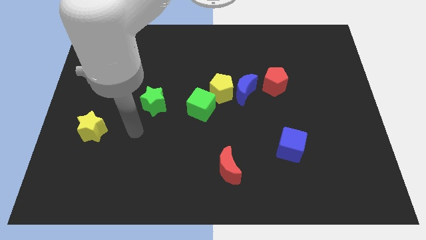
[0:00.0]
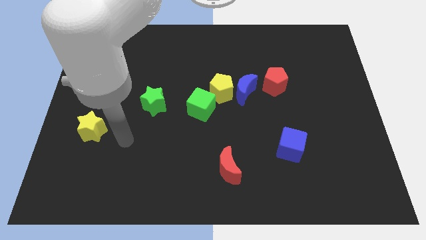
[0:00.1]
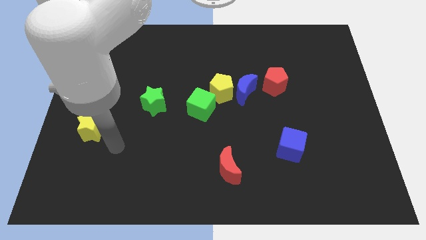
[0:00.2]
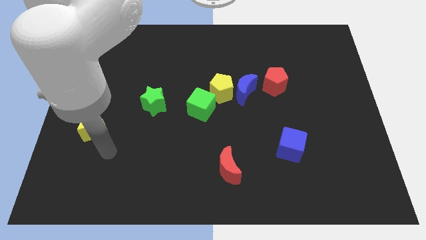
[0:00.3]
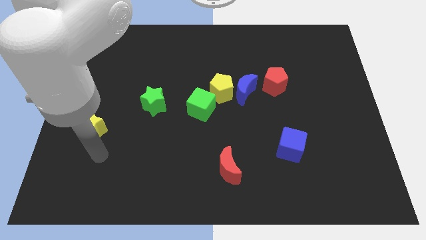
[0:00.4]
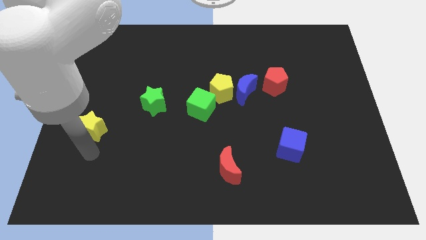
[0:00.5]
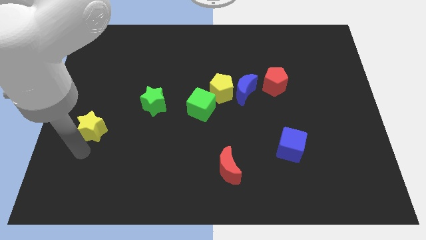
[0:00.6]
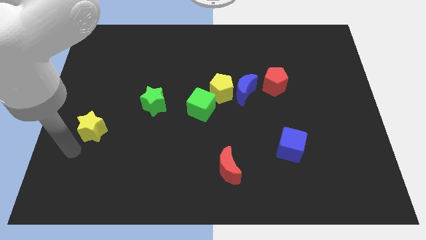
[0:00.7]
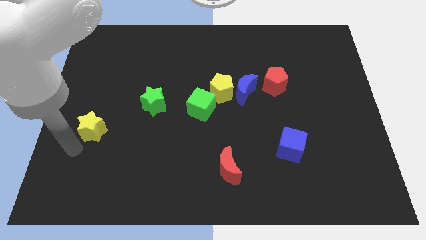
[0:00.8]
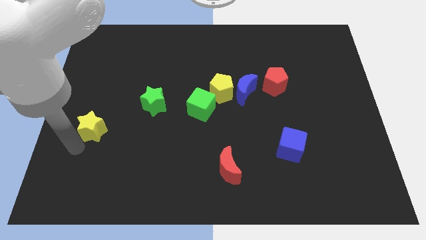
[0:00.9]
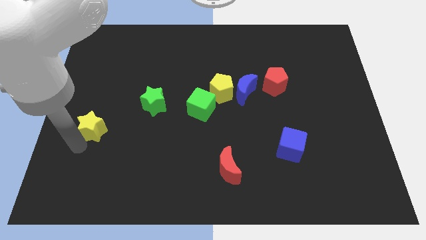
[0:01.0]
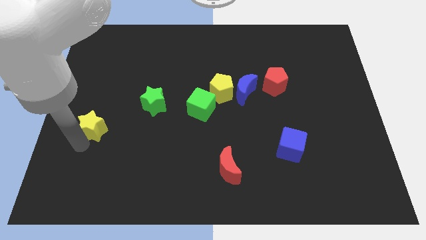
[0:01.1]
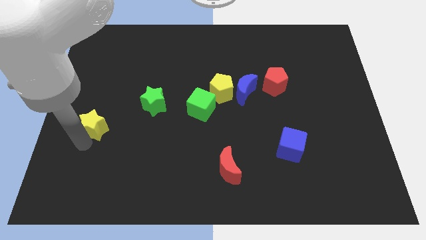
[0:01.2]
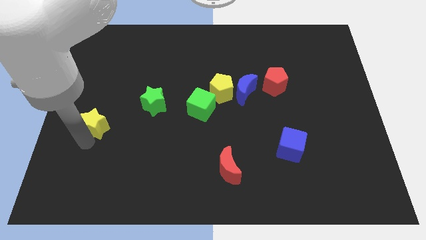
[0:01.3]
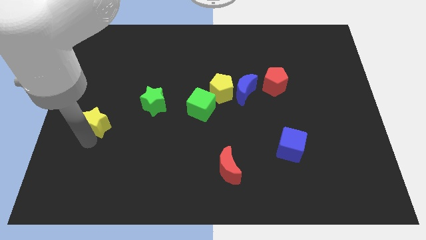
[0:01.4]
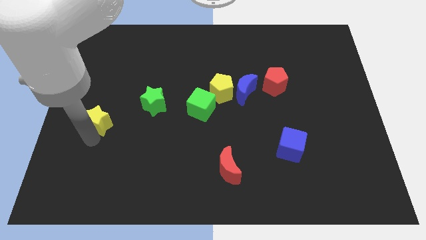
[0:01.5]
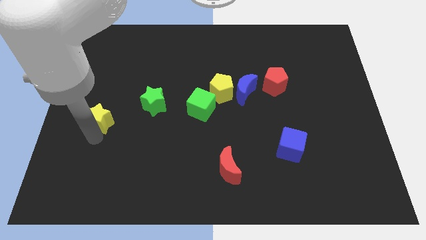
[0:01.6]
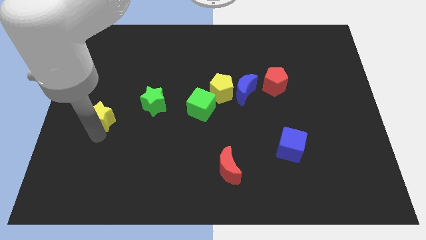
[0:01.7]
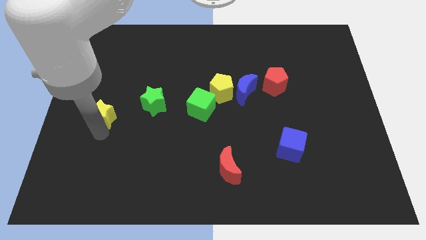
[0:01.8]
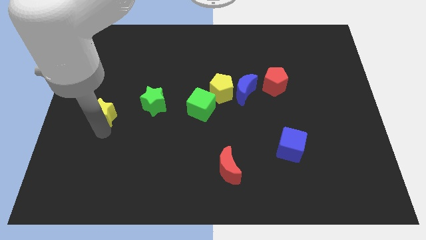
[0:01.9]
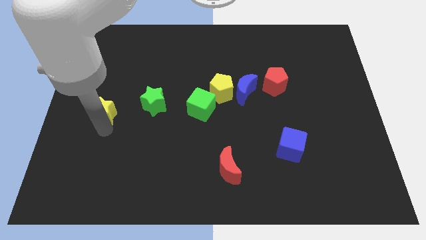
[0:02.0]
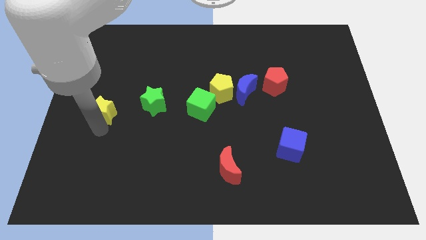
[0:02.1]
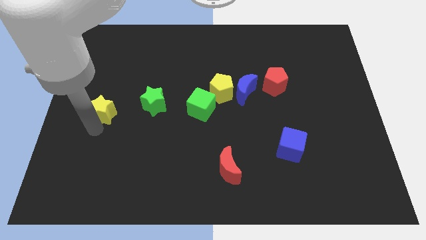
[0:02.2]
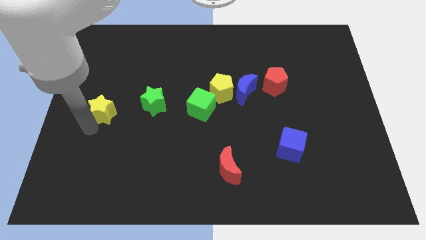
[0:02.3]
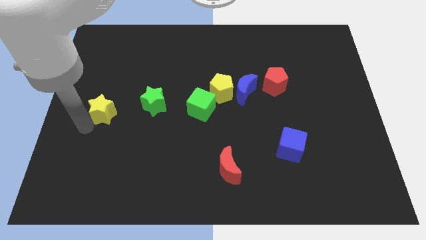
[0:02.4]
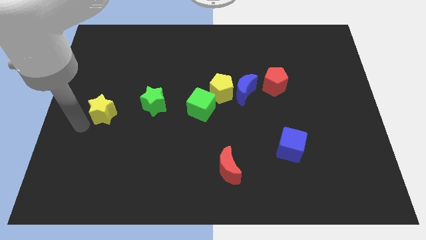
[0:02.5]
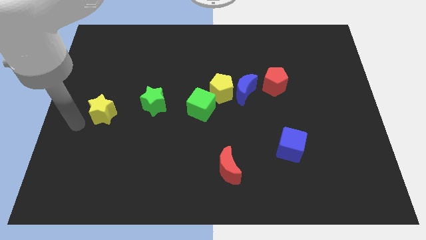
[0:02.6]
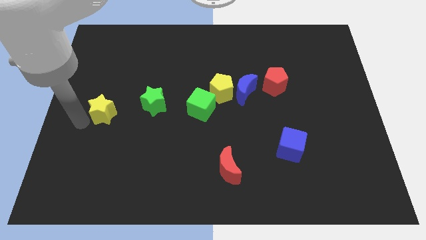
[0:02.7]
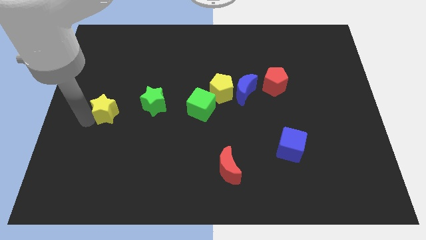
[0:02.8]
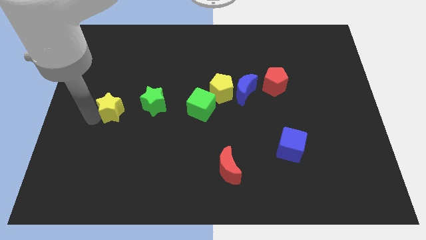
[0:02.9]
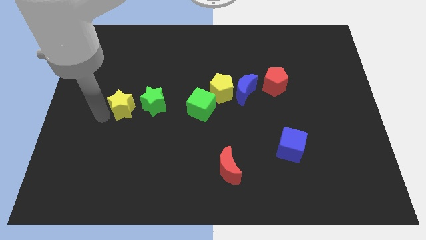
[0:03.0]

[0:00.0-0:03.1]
push the yellow star a little bit diagonally upwards and to the right

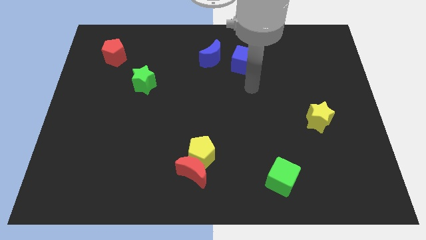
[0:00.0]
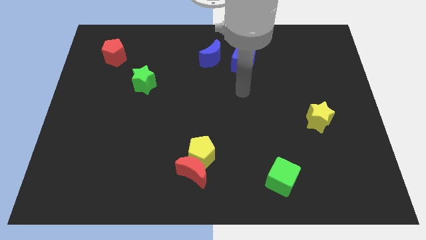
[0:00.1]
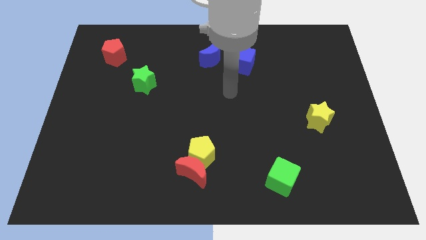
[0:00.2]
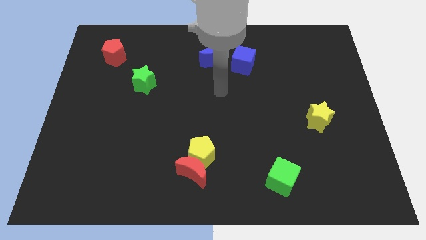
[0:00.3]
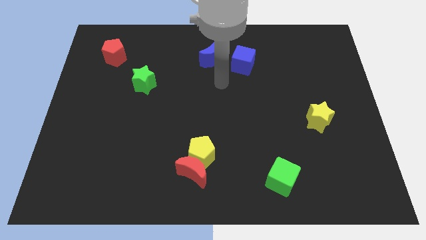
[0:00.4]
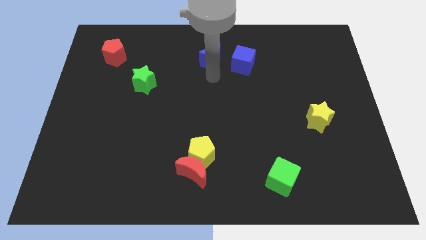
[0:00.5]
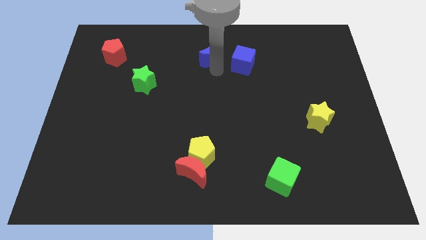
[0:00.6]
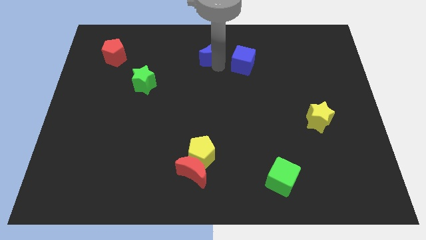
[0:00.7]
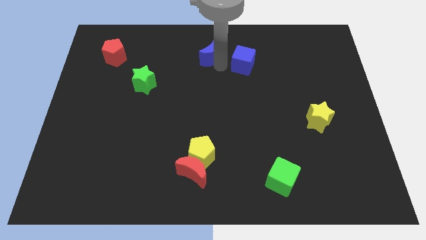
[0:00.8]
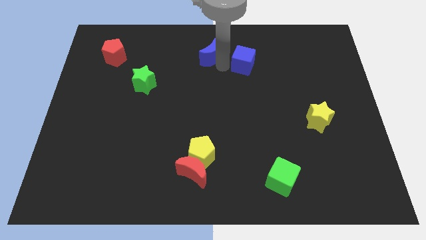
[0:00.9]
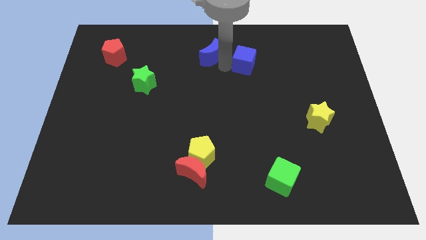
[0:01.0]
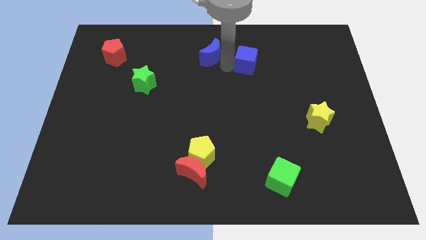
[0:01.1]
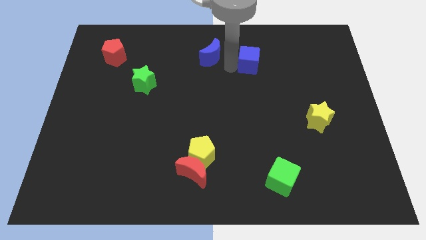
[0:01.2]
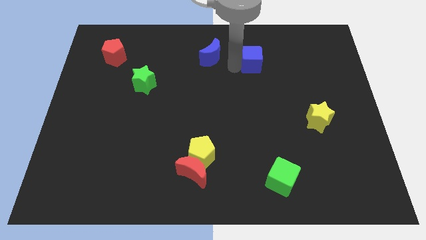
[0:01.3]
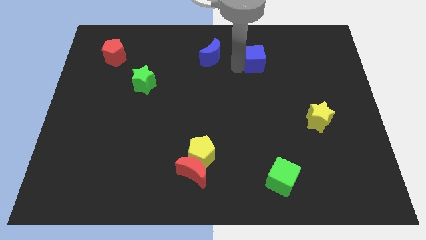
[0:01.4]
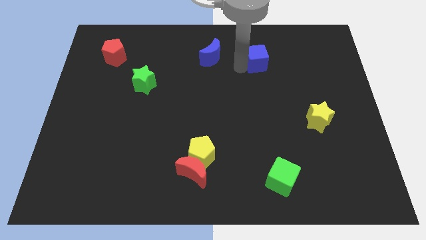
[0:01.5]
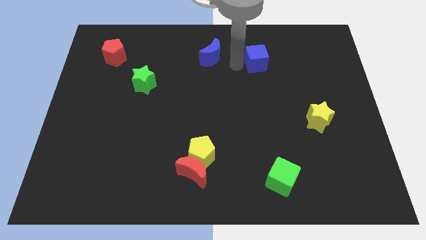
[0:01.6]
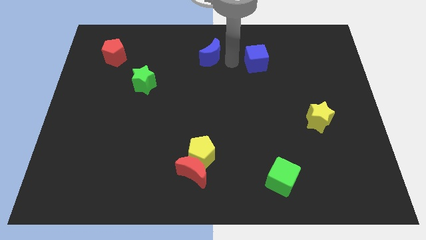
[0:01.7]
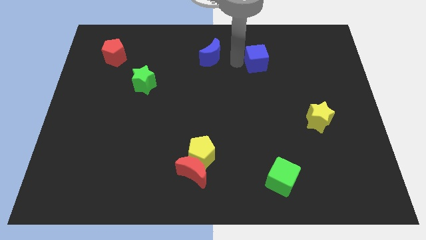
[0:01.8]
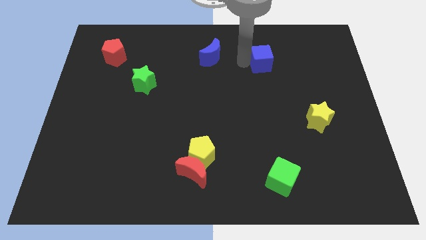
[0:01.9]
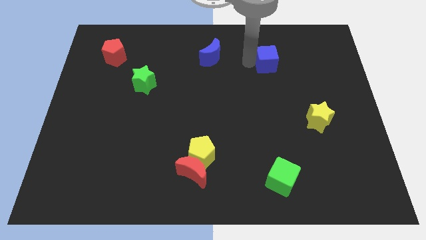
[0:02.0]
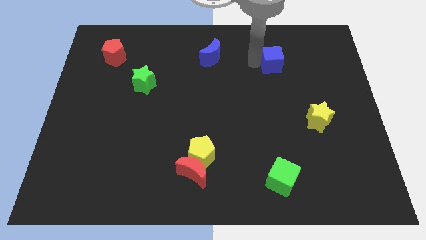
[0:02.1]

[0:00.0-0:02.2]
slightly slide the blue cube right

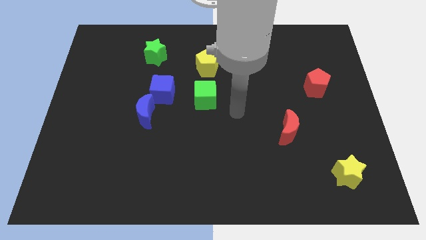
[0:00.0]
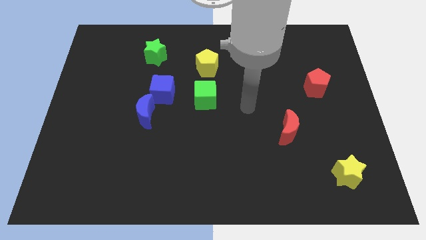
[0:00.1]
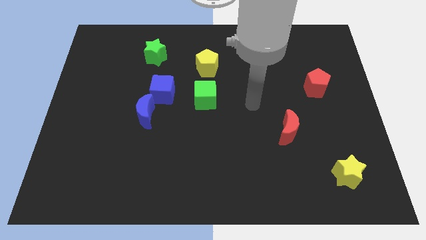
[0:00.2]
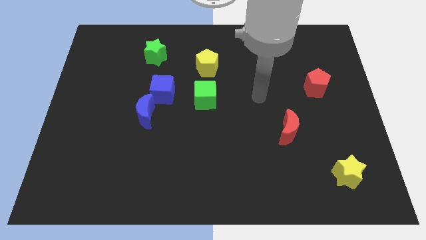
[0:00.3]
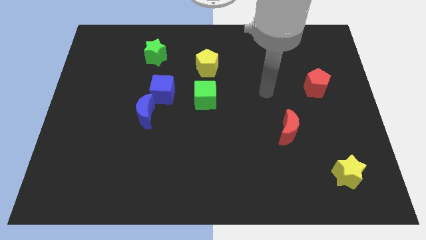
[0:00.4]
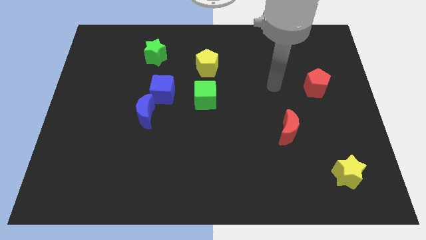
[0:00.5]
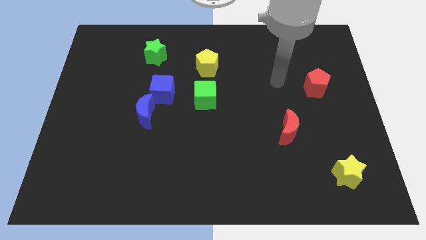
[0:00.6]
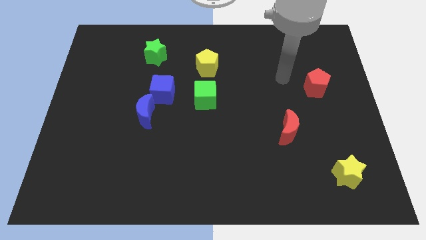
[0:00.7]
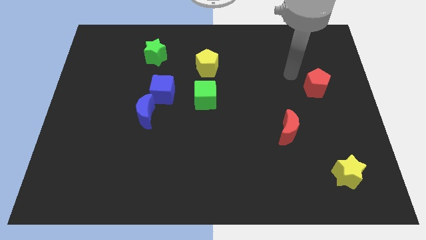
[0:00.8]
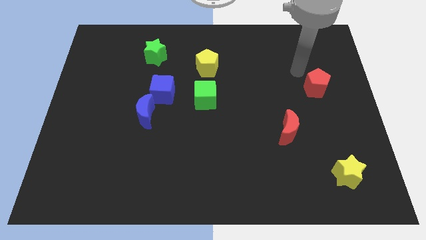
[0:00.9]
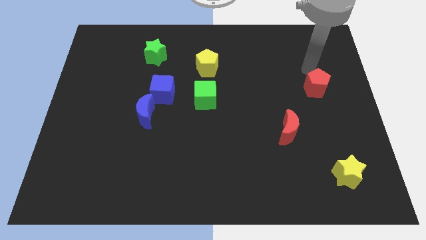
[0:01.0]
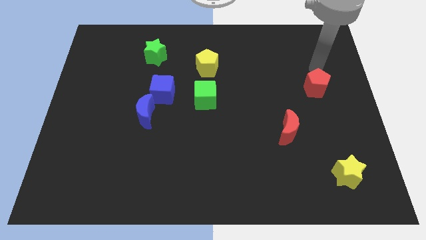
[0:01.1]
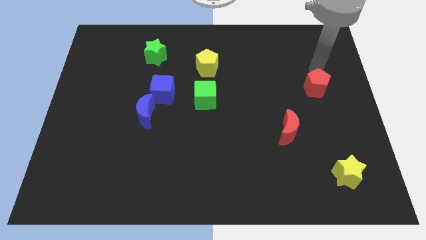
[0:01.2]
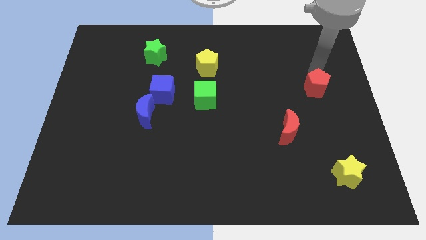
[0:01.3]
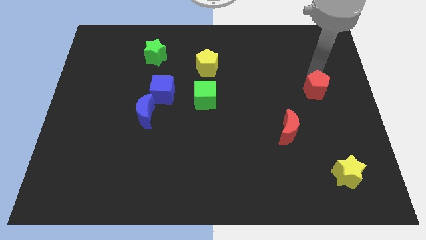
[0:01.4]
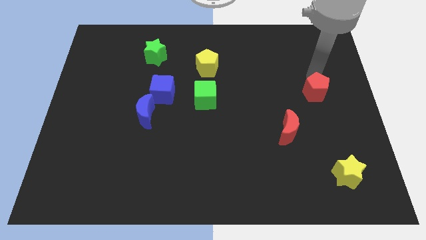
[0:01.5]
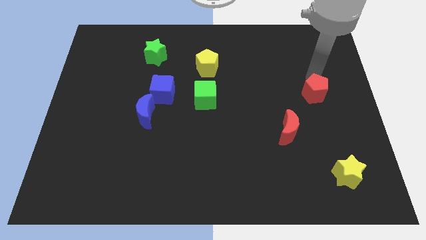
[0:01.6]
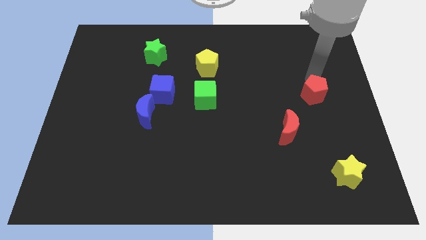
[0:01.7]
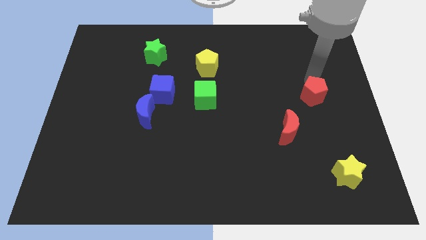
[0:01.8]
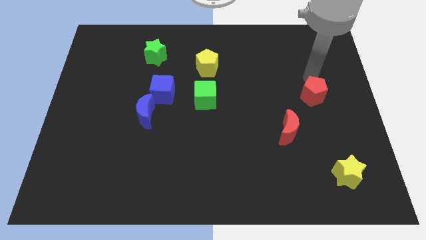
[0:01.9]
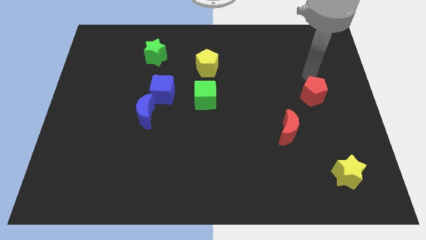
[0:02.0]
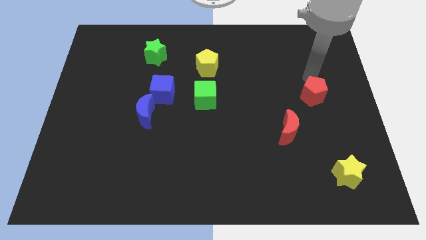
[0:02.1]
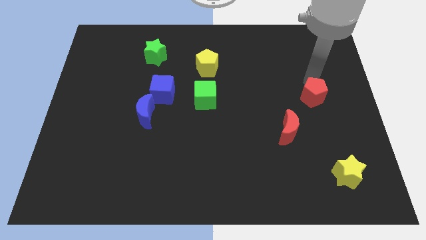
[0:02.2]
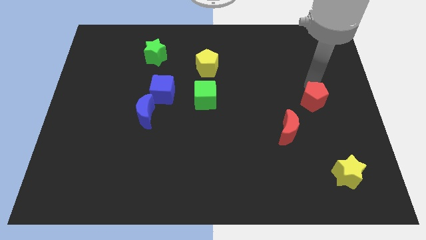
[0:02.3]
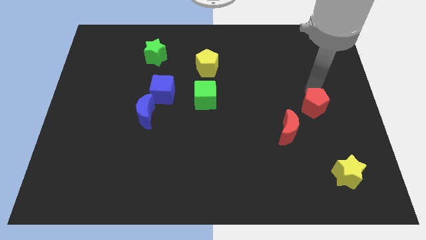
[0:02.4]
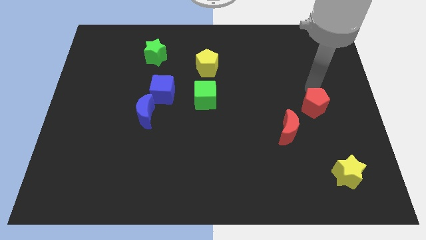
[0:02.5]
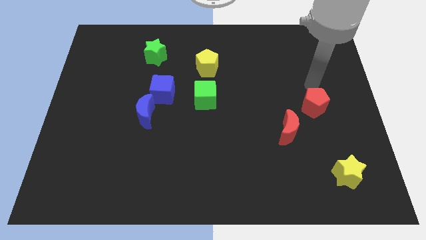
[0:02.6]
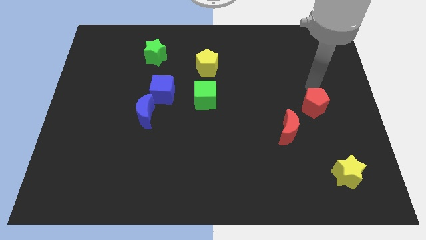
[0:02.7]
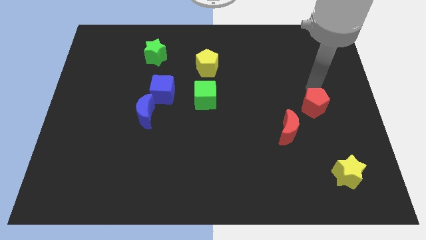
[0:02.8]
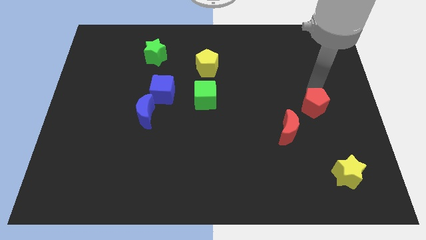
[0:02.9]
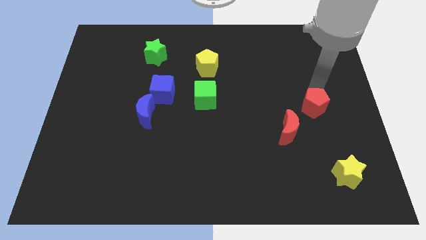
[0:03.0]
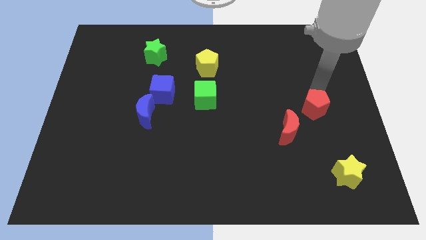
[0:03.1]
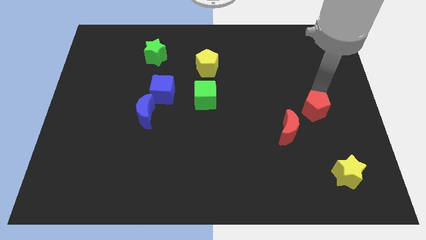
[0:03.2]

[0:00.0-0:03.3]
slide the red pentagon a little down
